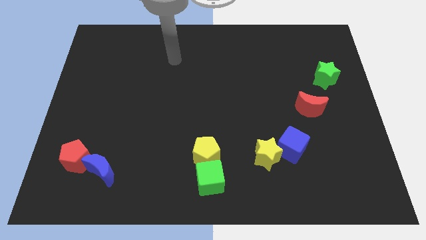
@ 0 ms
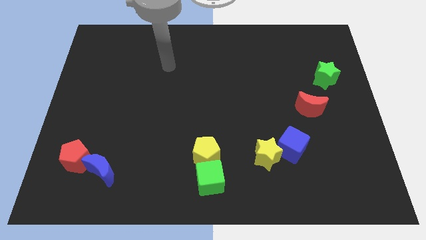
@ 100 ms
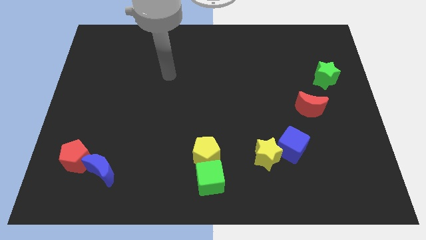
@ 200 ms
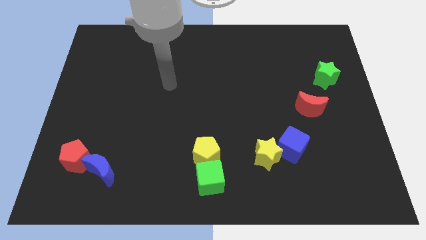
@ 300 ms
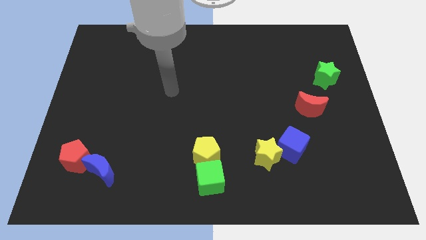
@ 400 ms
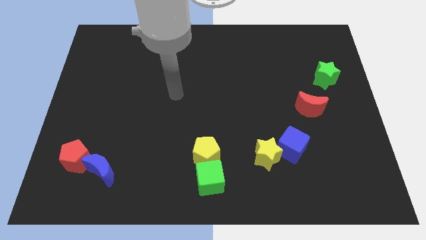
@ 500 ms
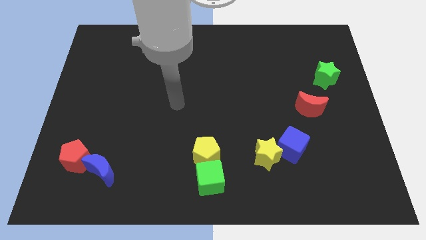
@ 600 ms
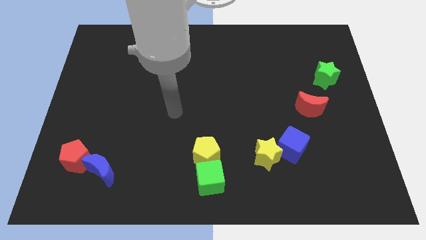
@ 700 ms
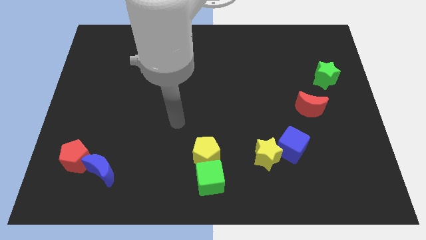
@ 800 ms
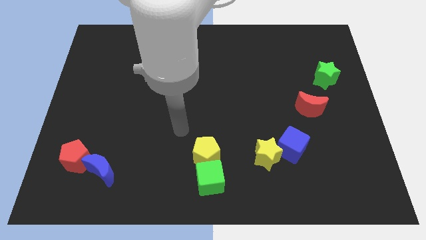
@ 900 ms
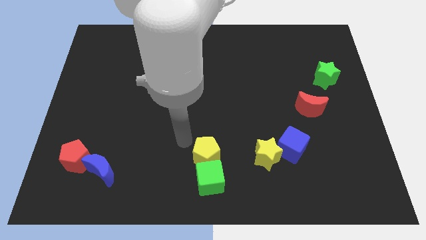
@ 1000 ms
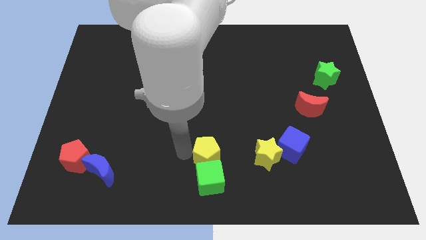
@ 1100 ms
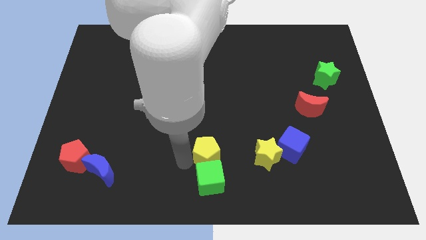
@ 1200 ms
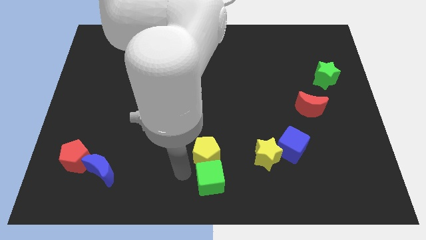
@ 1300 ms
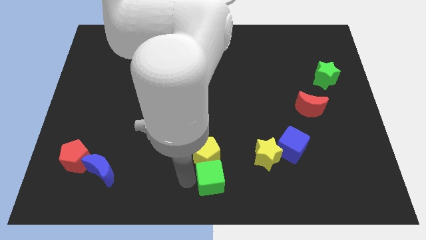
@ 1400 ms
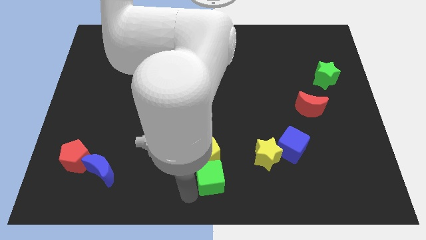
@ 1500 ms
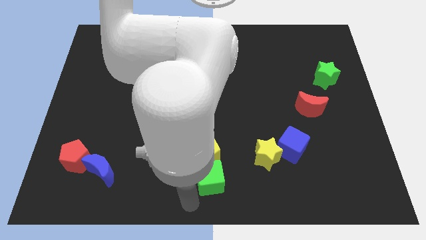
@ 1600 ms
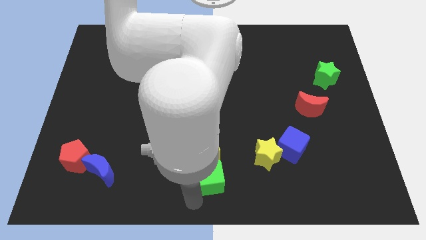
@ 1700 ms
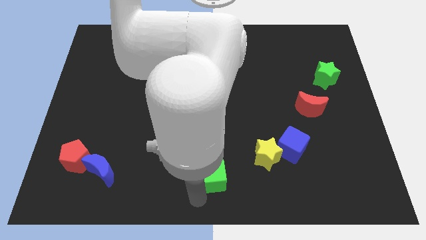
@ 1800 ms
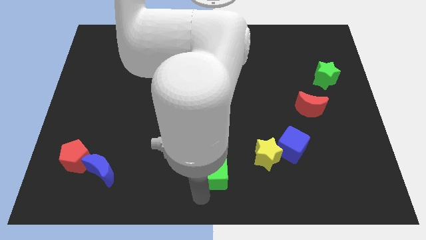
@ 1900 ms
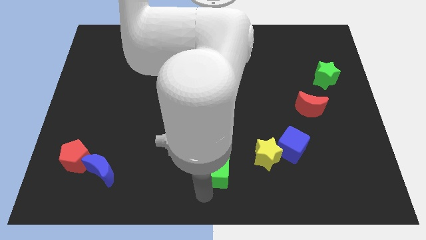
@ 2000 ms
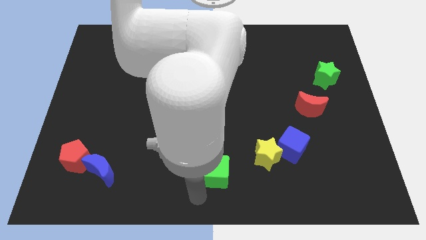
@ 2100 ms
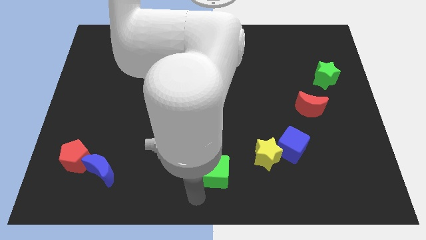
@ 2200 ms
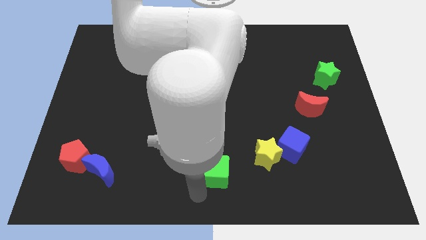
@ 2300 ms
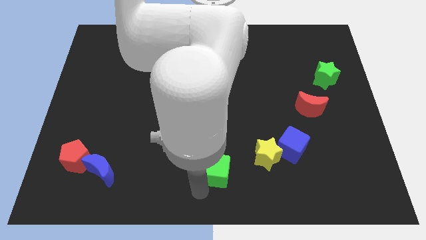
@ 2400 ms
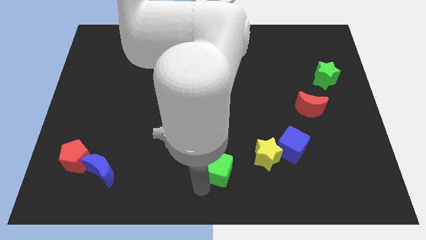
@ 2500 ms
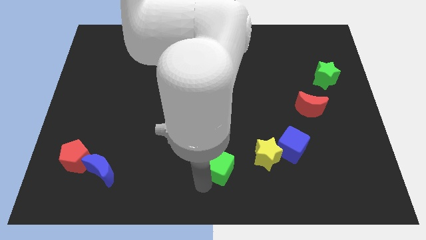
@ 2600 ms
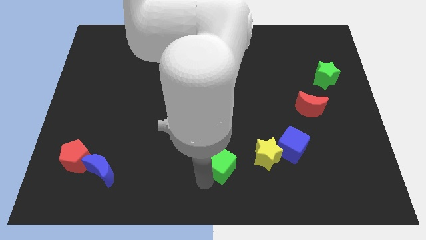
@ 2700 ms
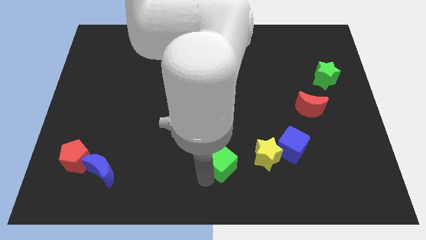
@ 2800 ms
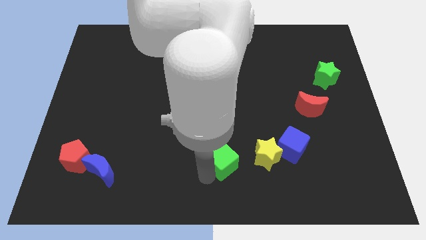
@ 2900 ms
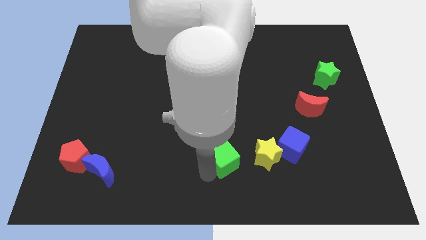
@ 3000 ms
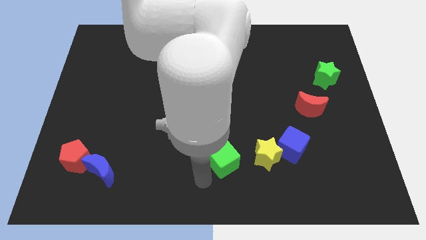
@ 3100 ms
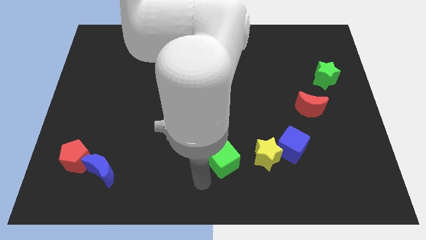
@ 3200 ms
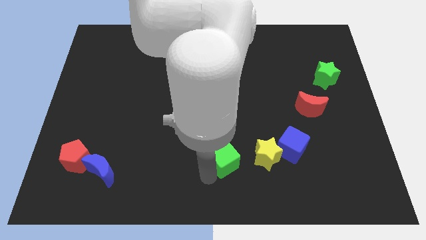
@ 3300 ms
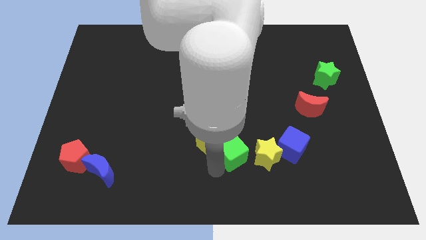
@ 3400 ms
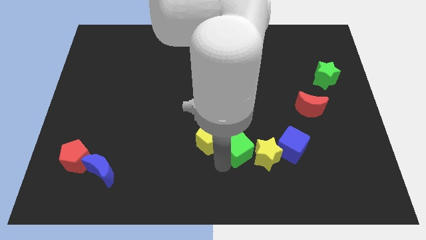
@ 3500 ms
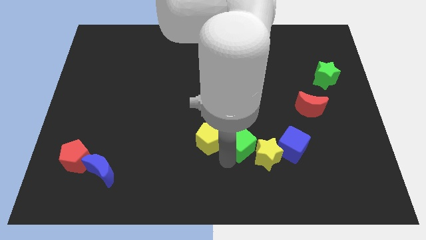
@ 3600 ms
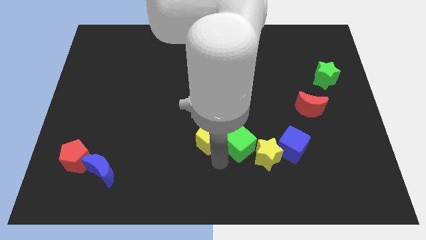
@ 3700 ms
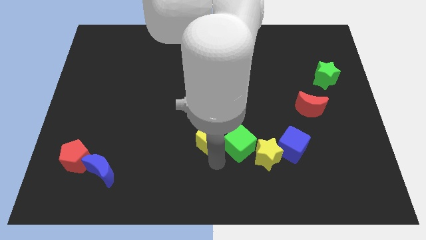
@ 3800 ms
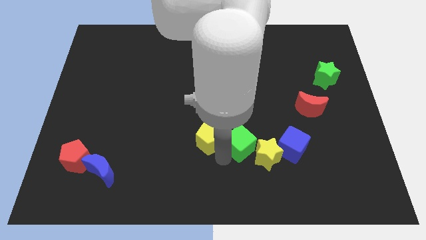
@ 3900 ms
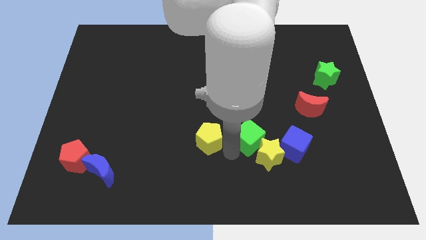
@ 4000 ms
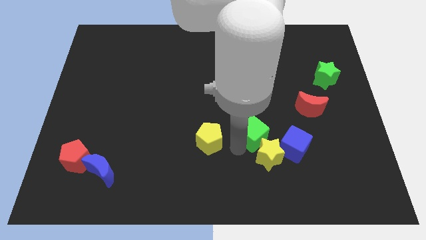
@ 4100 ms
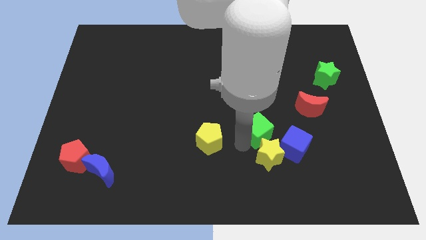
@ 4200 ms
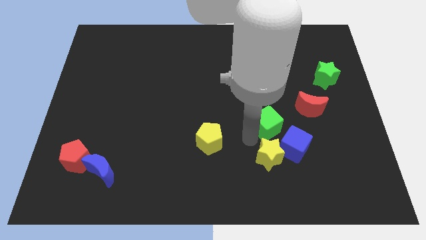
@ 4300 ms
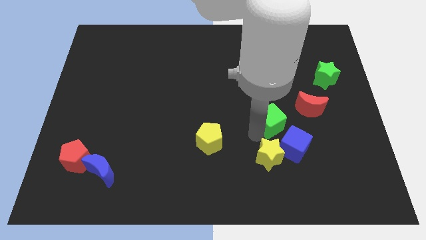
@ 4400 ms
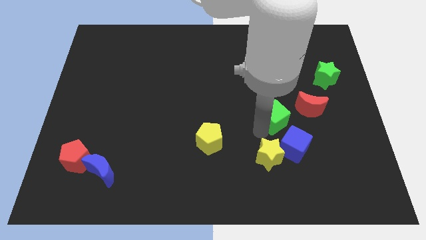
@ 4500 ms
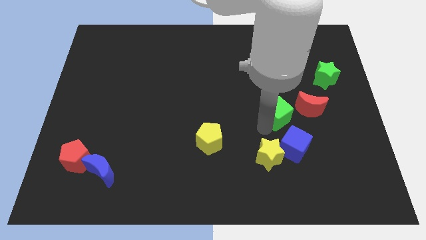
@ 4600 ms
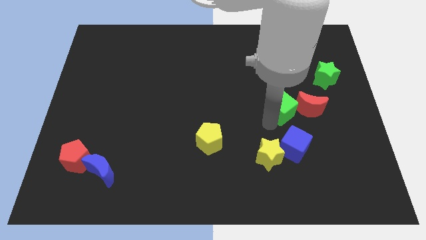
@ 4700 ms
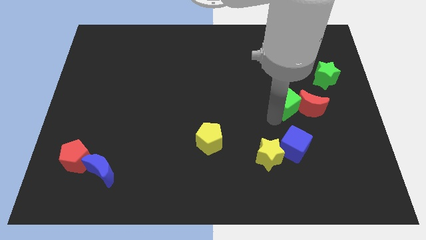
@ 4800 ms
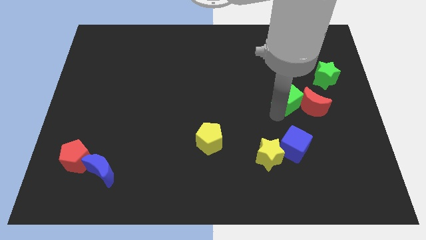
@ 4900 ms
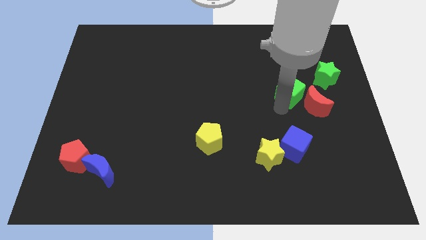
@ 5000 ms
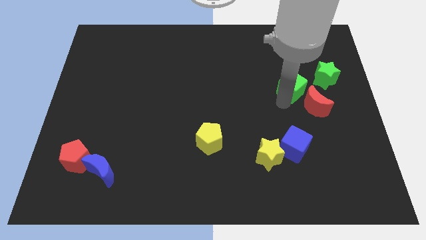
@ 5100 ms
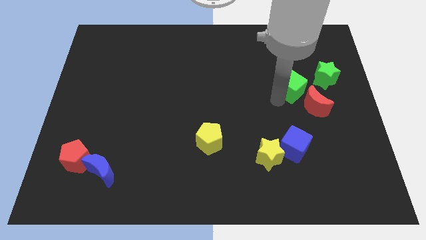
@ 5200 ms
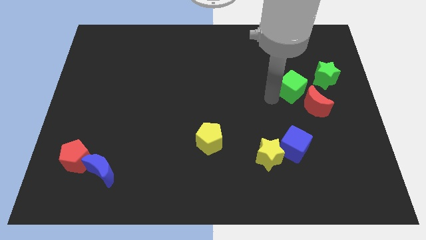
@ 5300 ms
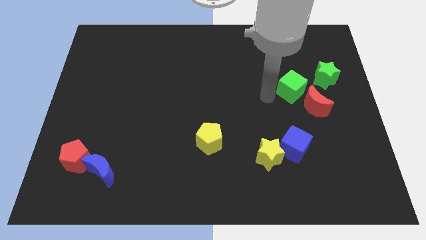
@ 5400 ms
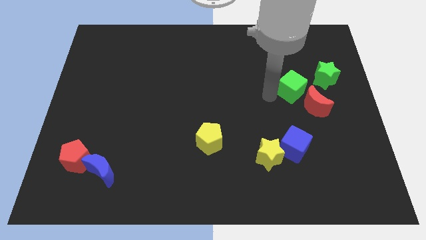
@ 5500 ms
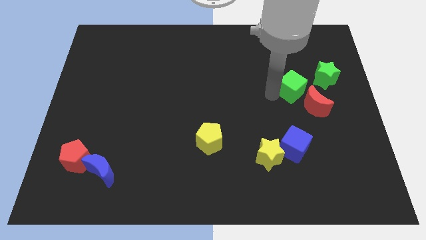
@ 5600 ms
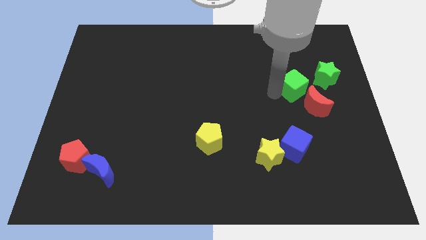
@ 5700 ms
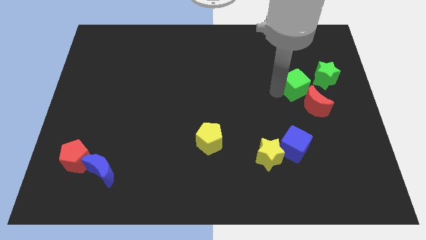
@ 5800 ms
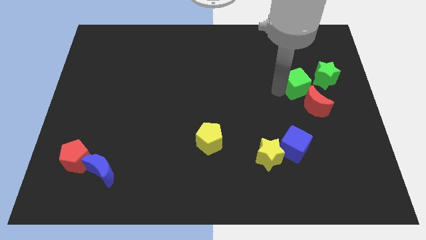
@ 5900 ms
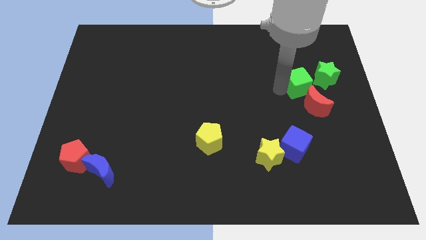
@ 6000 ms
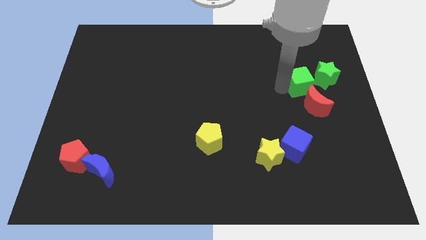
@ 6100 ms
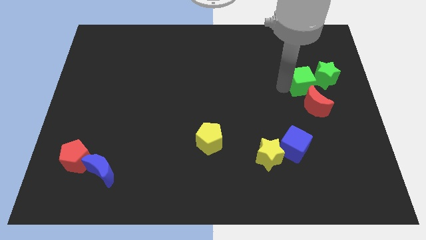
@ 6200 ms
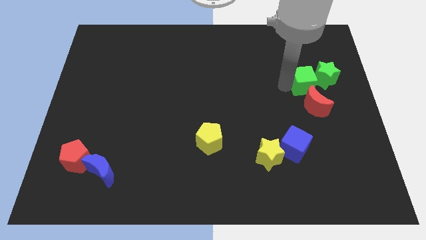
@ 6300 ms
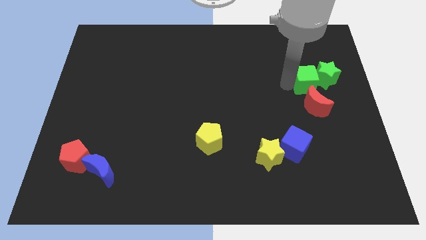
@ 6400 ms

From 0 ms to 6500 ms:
put the green cube towards the green star
